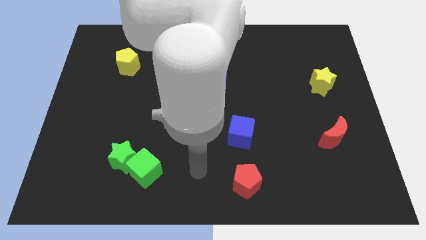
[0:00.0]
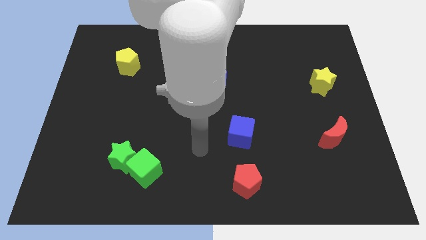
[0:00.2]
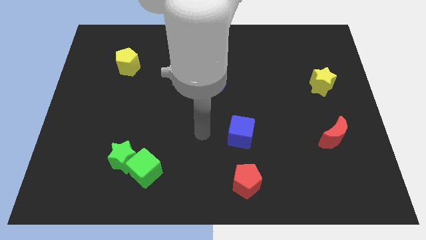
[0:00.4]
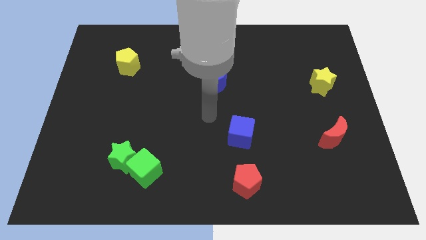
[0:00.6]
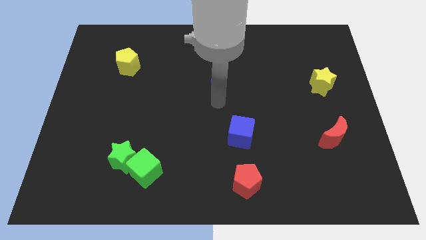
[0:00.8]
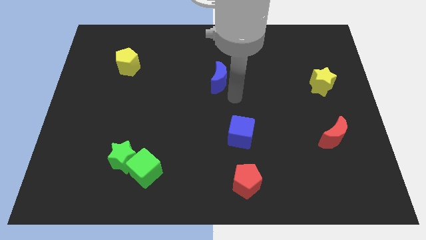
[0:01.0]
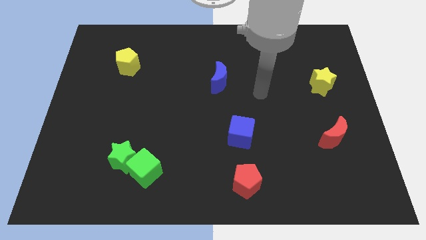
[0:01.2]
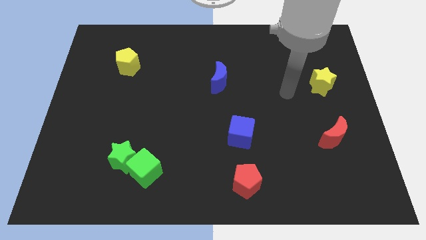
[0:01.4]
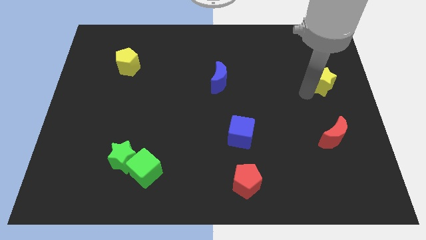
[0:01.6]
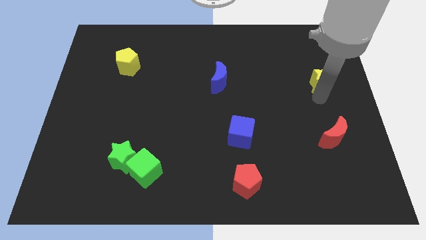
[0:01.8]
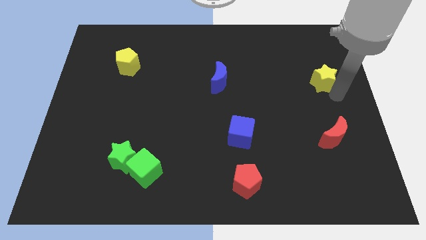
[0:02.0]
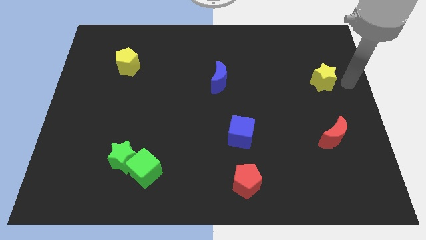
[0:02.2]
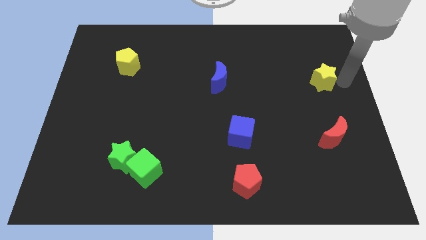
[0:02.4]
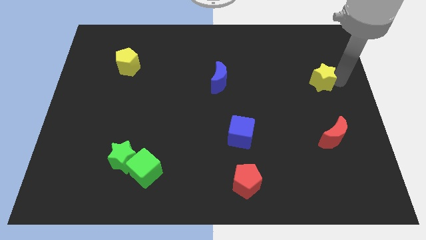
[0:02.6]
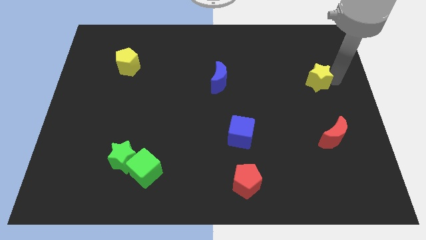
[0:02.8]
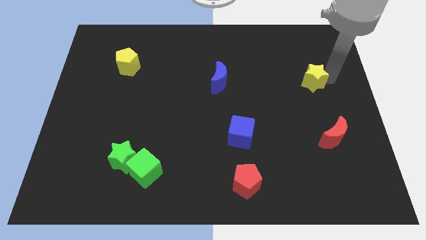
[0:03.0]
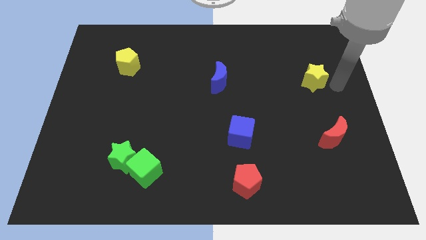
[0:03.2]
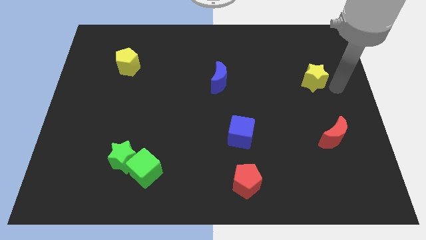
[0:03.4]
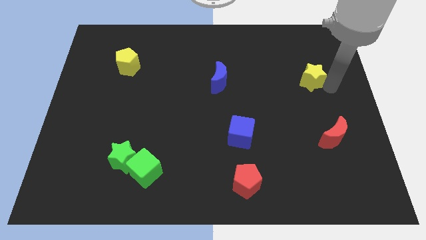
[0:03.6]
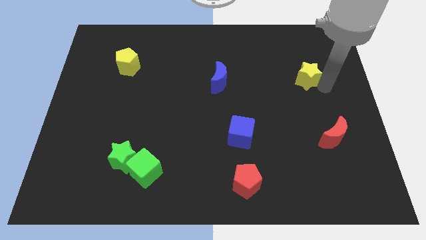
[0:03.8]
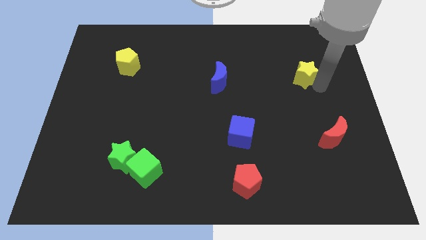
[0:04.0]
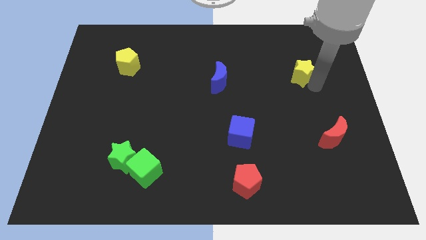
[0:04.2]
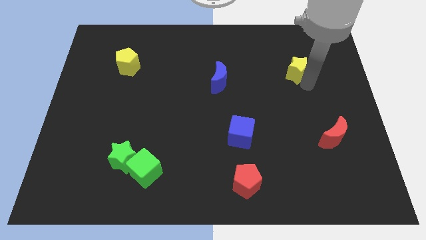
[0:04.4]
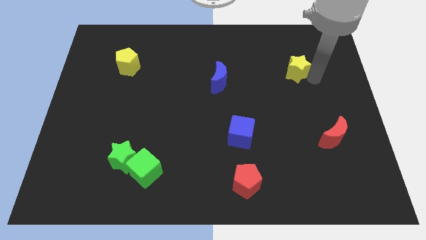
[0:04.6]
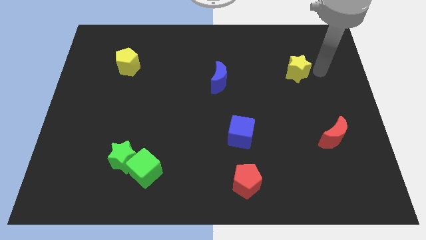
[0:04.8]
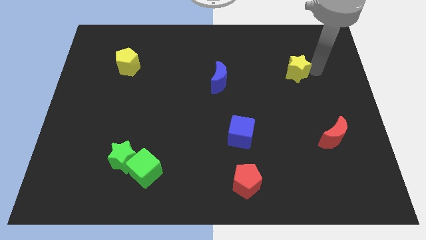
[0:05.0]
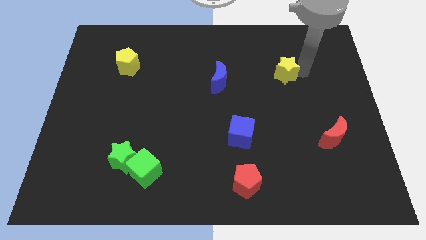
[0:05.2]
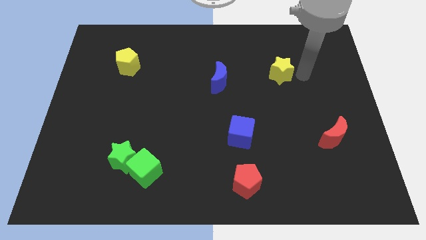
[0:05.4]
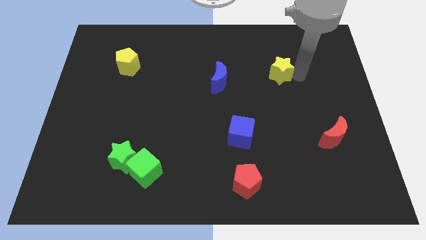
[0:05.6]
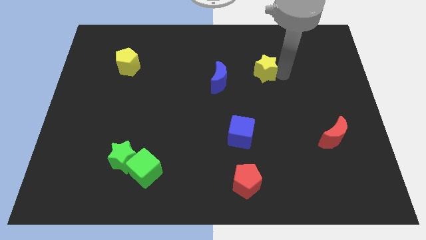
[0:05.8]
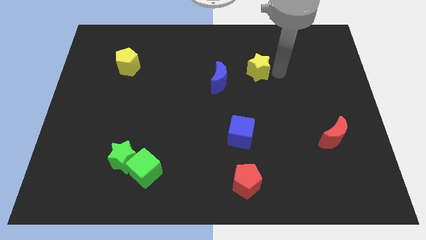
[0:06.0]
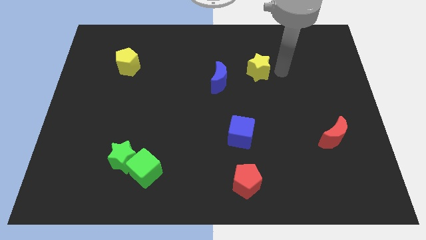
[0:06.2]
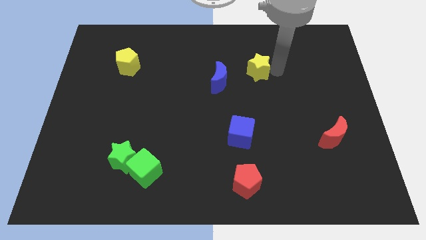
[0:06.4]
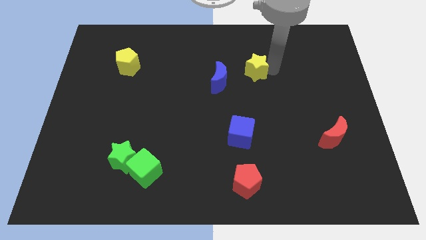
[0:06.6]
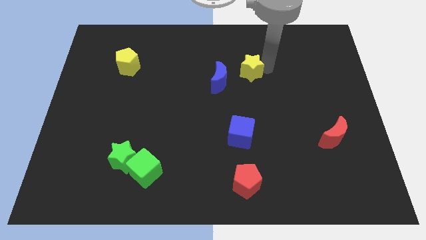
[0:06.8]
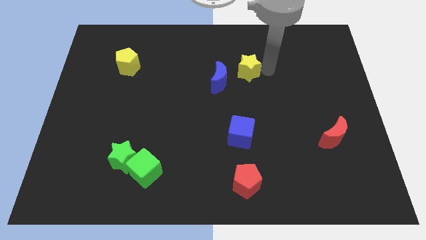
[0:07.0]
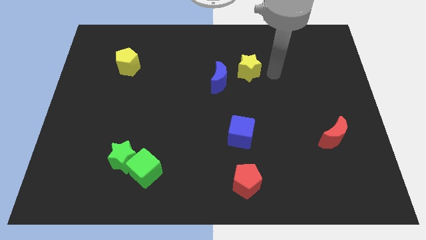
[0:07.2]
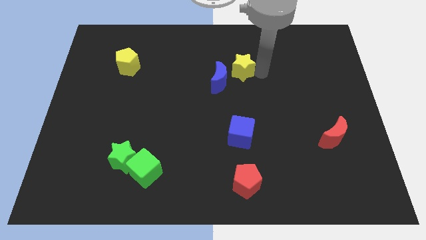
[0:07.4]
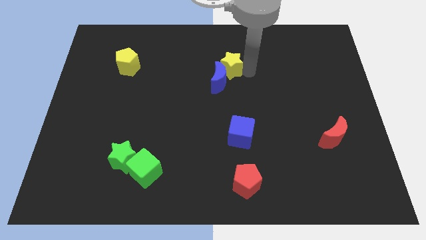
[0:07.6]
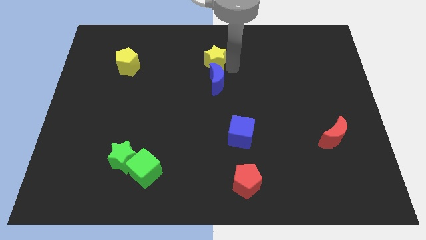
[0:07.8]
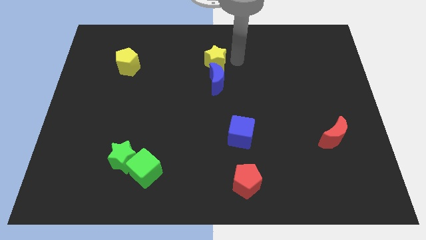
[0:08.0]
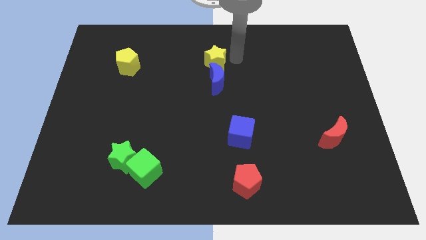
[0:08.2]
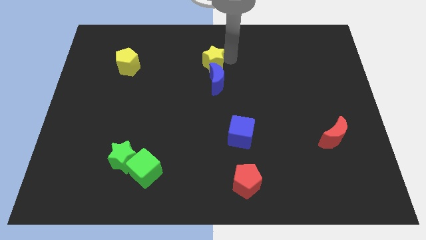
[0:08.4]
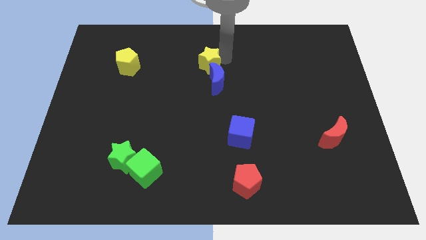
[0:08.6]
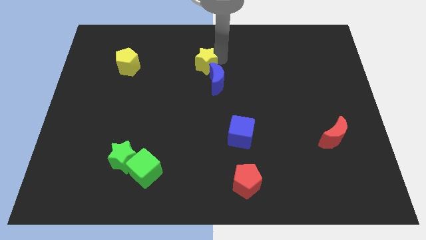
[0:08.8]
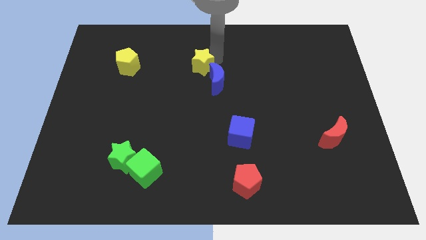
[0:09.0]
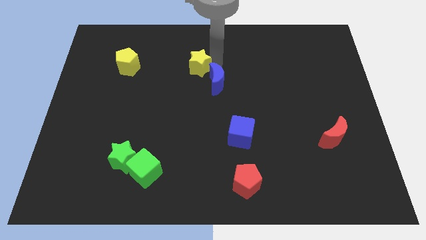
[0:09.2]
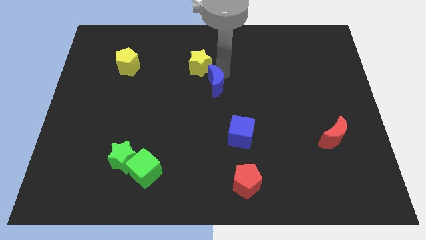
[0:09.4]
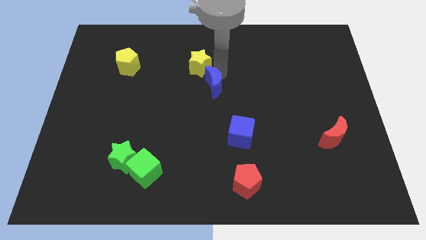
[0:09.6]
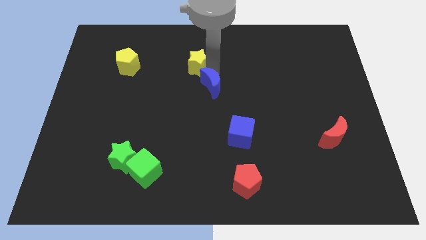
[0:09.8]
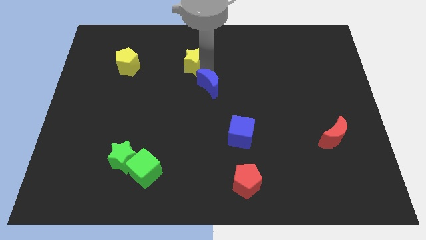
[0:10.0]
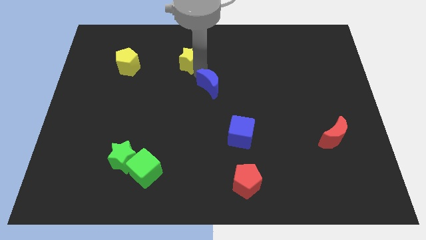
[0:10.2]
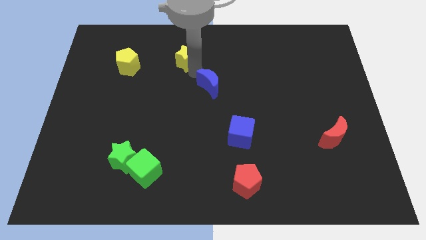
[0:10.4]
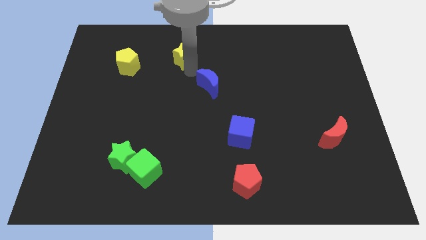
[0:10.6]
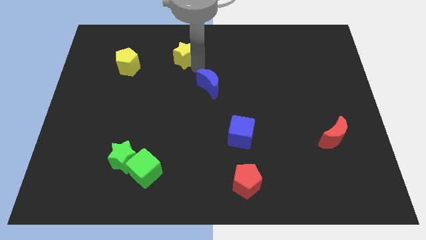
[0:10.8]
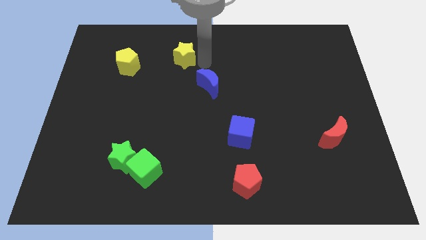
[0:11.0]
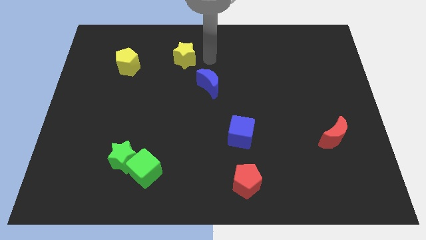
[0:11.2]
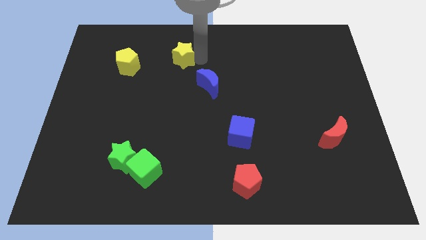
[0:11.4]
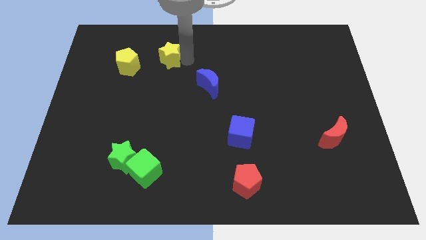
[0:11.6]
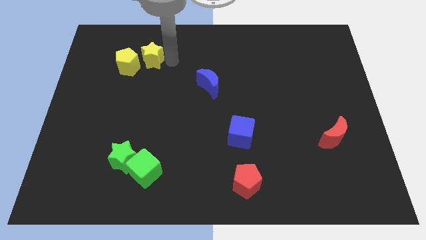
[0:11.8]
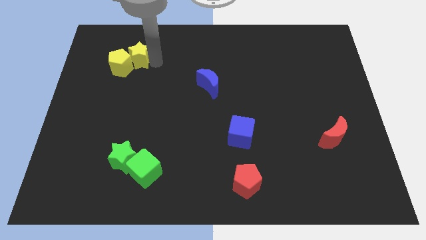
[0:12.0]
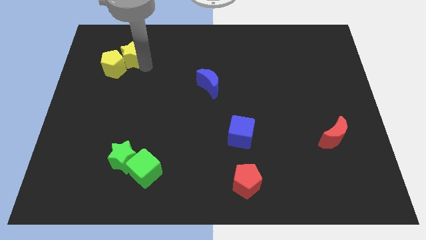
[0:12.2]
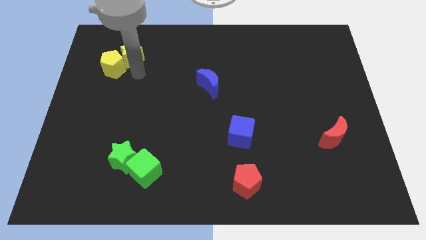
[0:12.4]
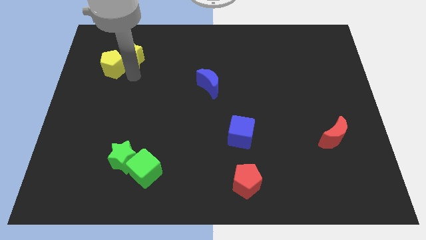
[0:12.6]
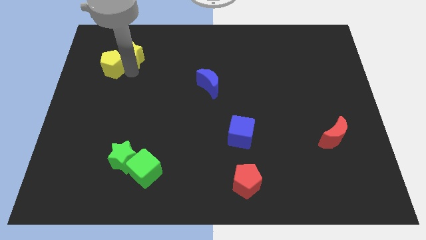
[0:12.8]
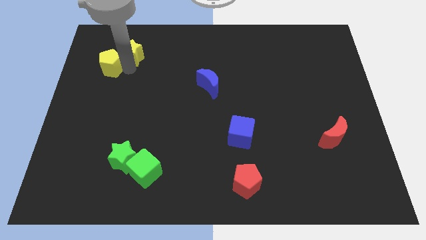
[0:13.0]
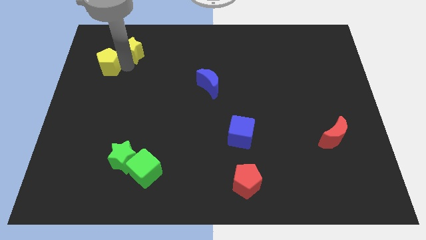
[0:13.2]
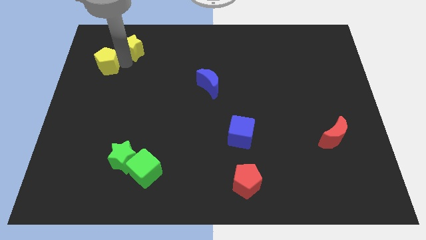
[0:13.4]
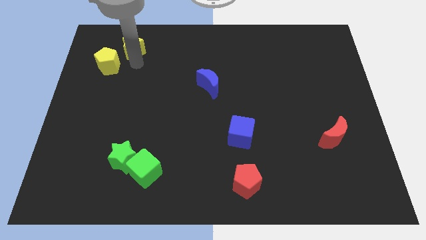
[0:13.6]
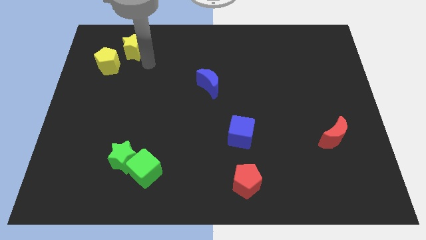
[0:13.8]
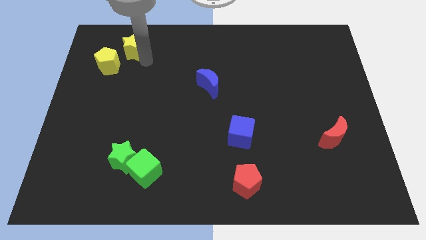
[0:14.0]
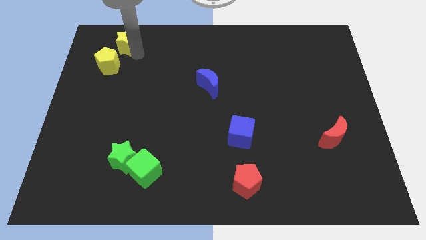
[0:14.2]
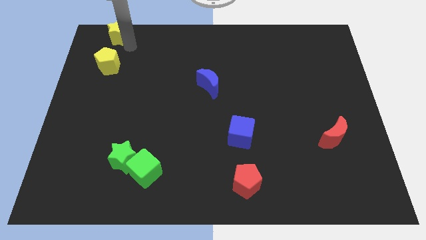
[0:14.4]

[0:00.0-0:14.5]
put the yellow star to the top left

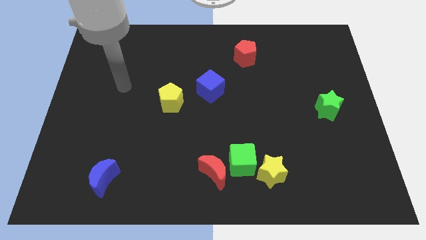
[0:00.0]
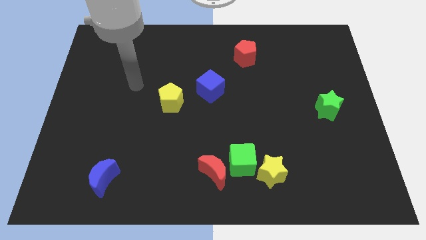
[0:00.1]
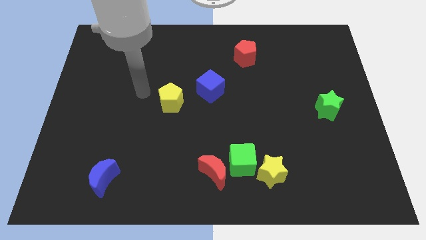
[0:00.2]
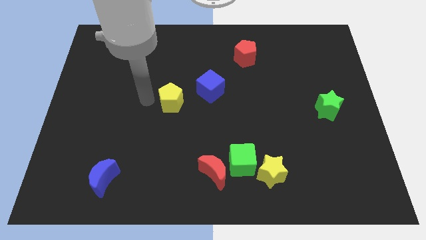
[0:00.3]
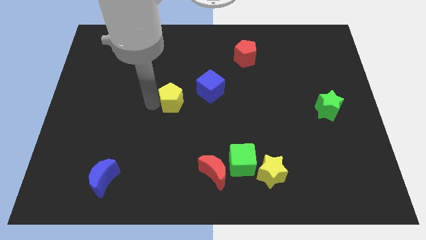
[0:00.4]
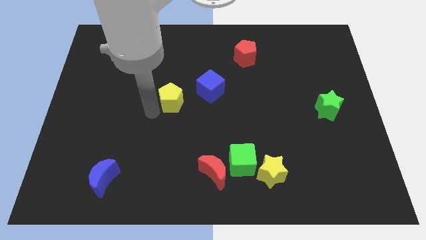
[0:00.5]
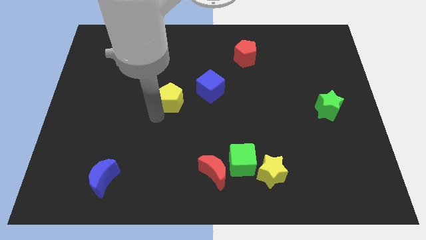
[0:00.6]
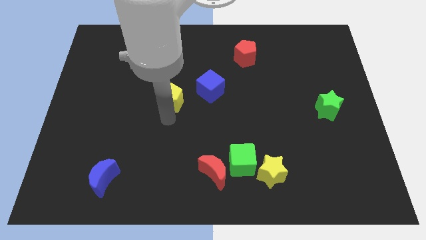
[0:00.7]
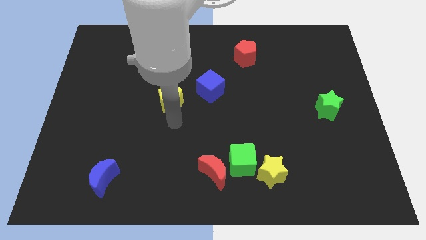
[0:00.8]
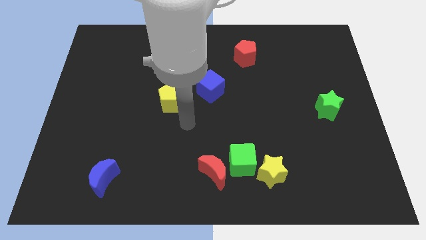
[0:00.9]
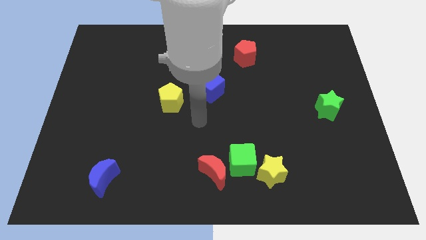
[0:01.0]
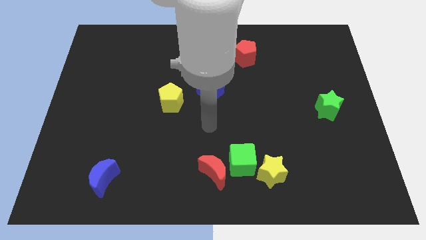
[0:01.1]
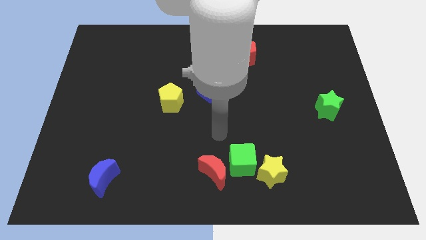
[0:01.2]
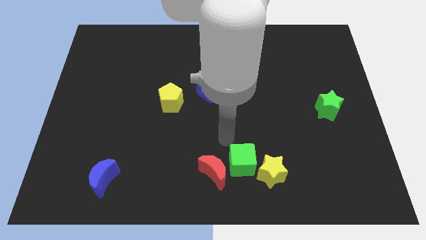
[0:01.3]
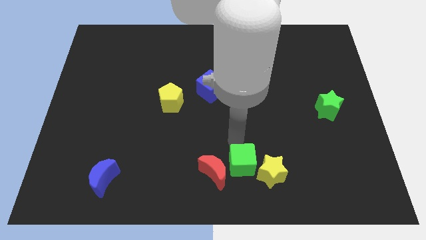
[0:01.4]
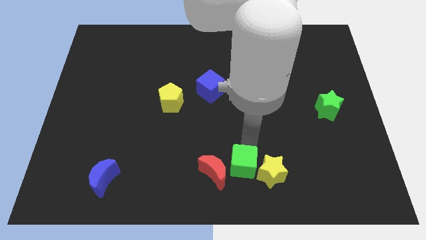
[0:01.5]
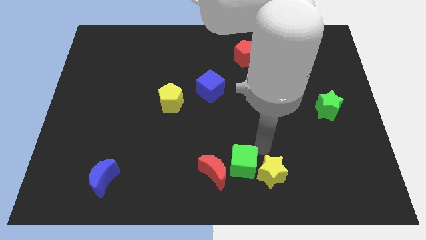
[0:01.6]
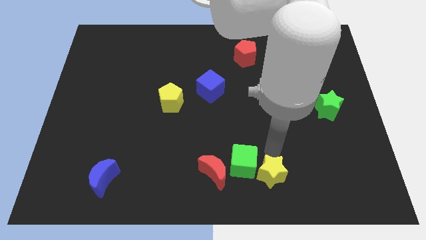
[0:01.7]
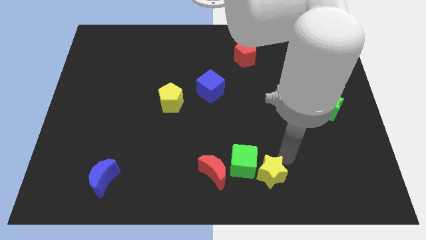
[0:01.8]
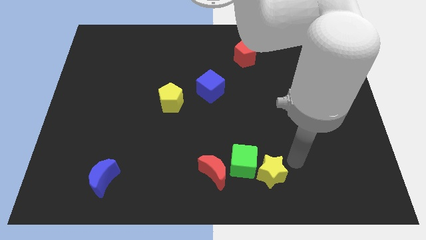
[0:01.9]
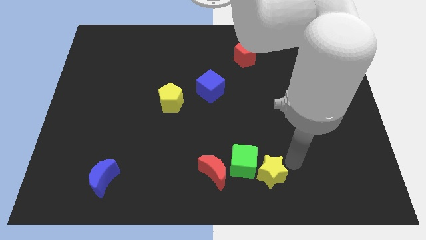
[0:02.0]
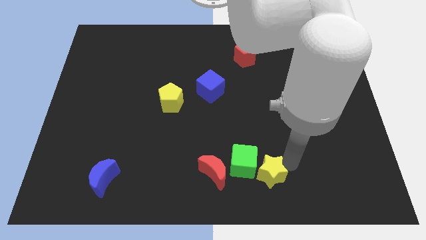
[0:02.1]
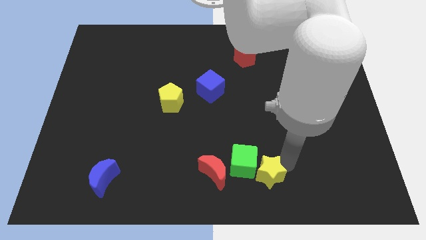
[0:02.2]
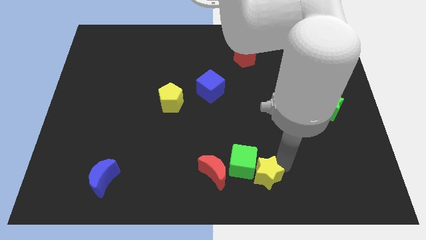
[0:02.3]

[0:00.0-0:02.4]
move the yellow star to the bottom side
